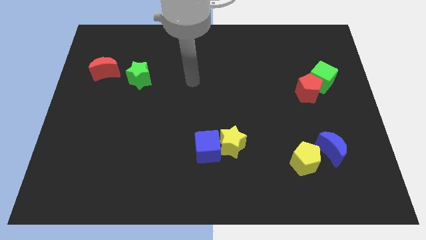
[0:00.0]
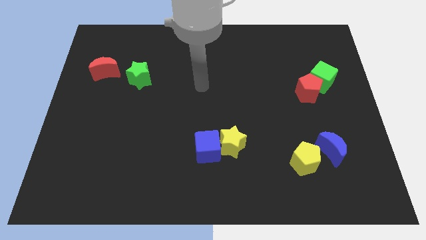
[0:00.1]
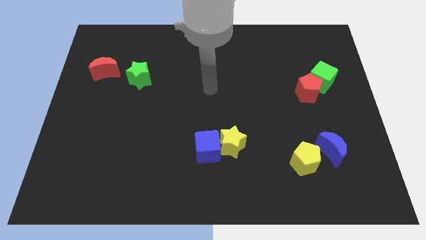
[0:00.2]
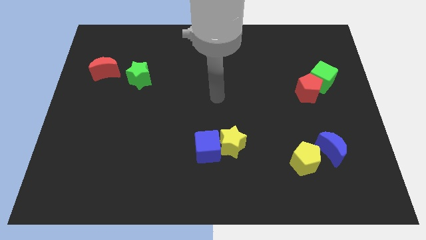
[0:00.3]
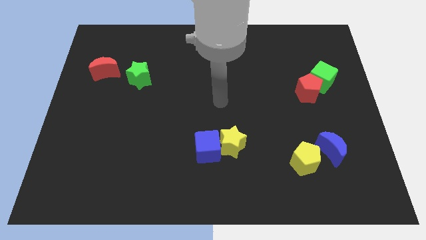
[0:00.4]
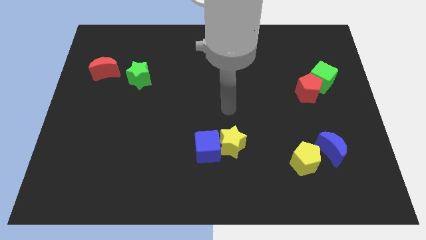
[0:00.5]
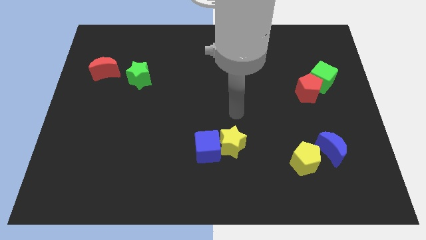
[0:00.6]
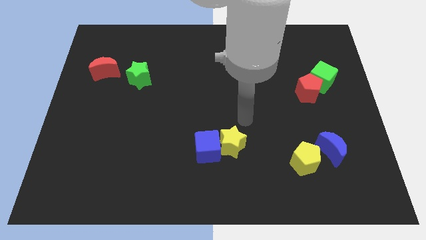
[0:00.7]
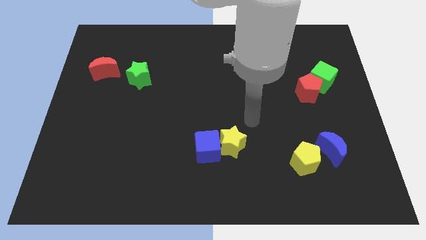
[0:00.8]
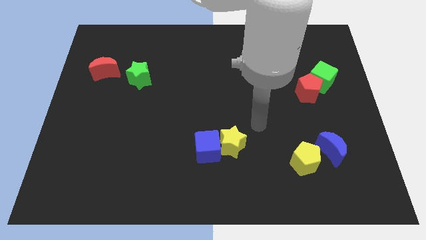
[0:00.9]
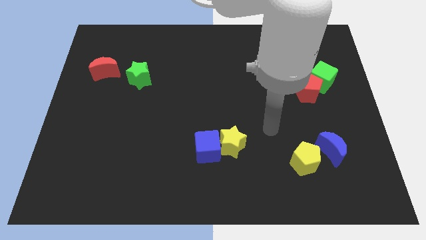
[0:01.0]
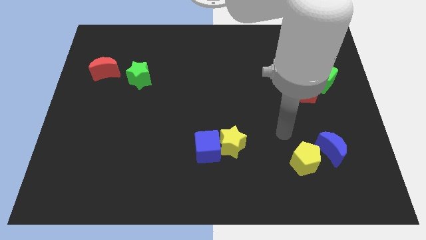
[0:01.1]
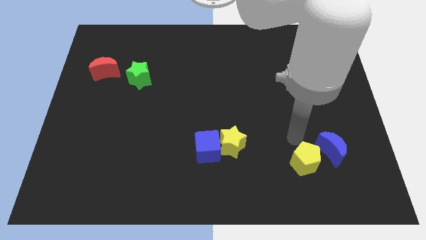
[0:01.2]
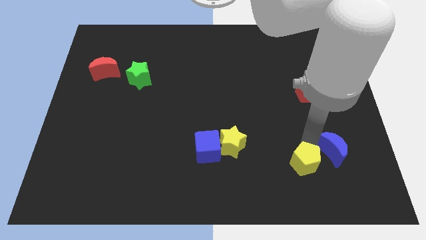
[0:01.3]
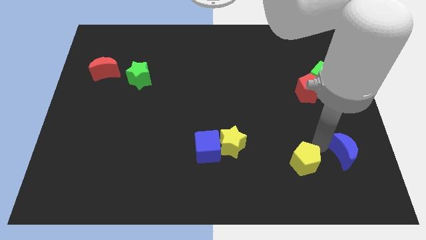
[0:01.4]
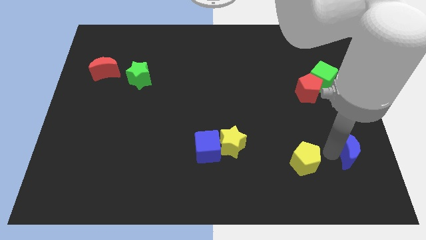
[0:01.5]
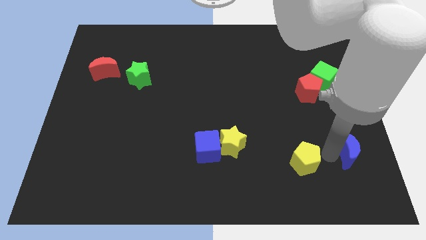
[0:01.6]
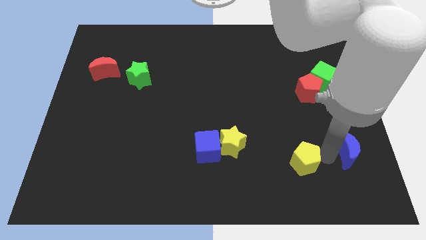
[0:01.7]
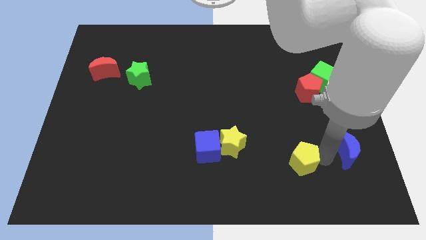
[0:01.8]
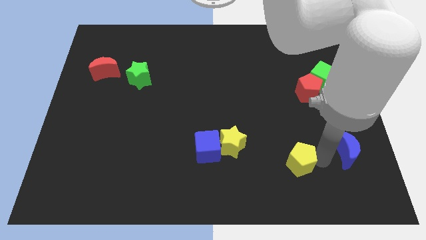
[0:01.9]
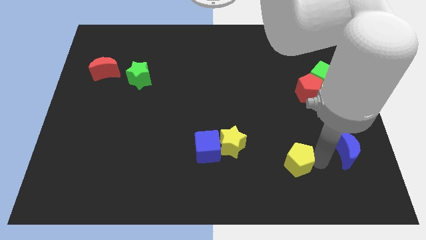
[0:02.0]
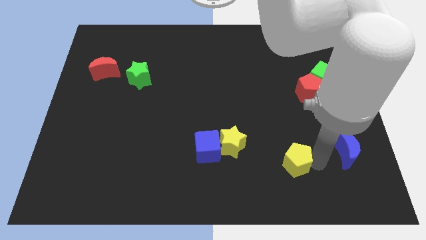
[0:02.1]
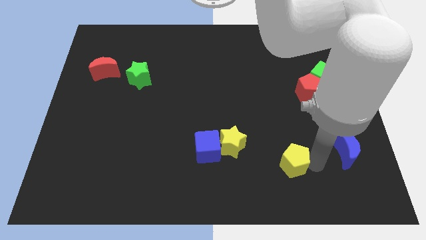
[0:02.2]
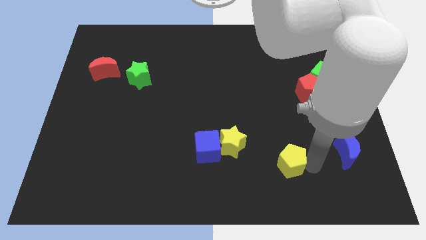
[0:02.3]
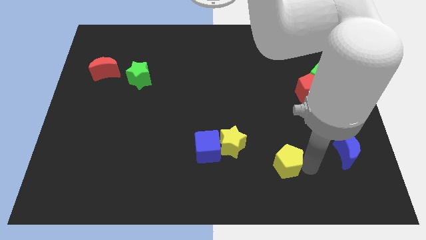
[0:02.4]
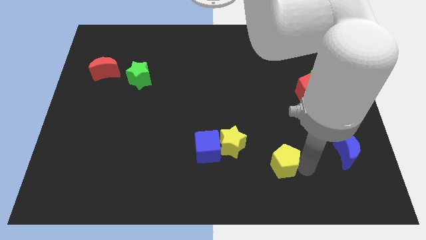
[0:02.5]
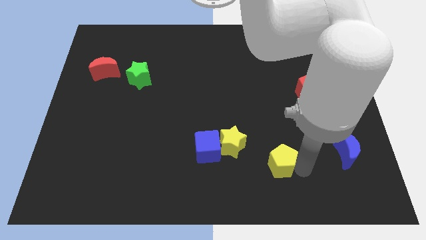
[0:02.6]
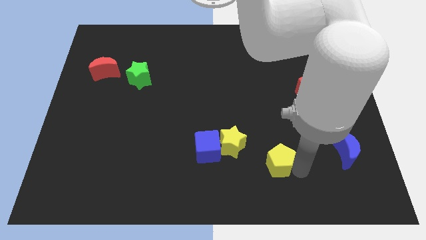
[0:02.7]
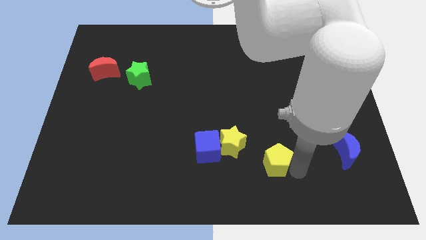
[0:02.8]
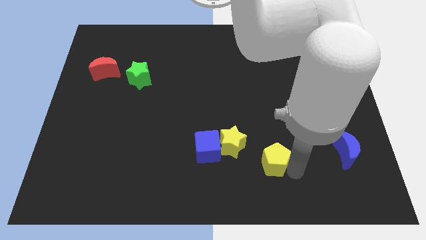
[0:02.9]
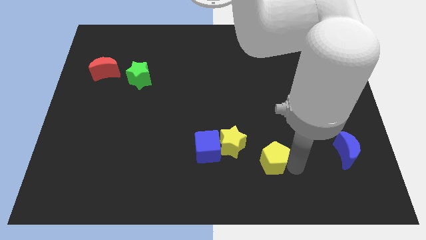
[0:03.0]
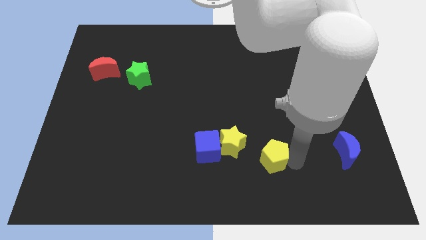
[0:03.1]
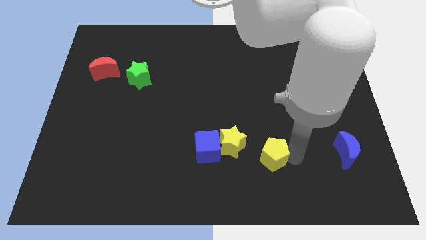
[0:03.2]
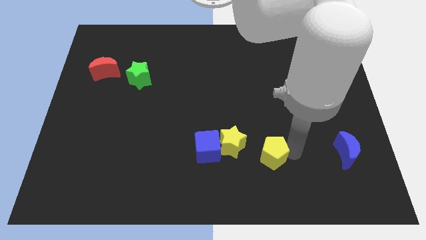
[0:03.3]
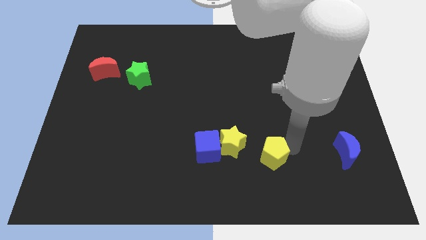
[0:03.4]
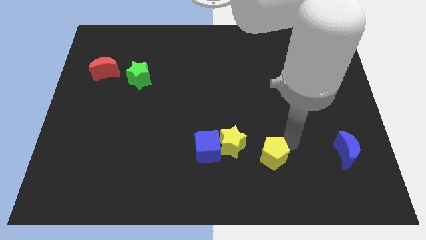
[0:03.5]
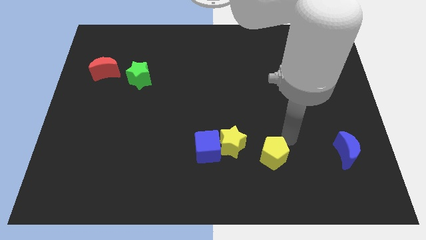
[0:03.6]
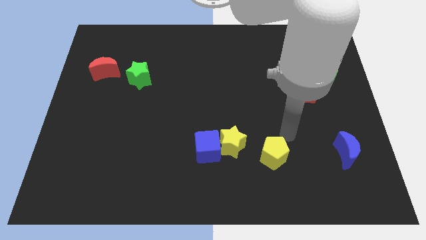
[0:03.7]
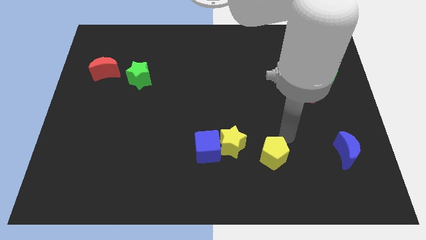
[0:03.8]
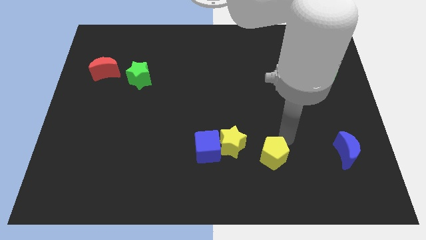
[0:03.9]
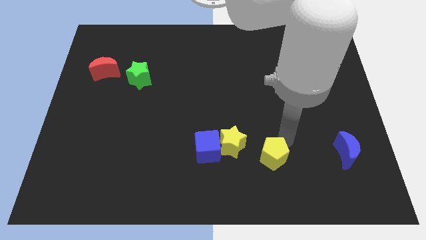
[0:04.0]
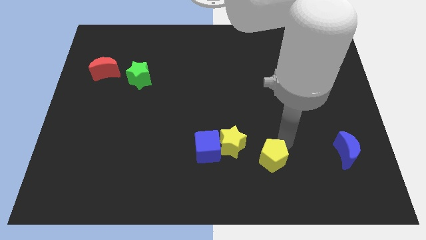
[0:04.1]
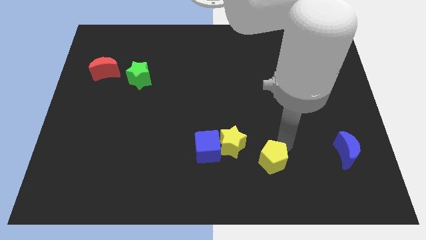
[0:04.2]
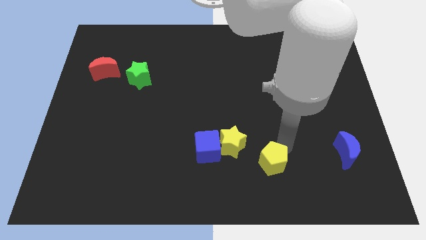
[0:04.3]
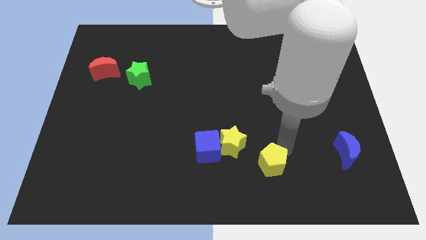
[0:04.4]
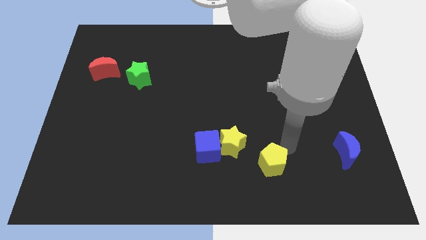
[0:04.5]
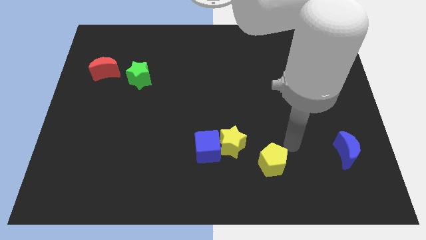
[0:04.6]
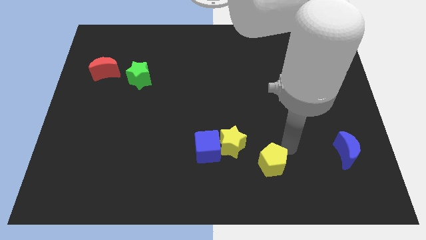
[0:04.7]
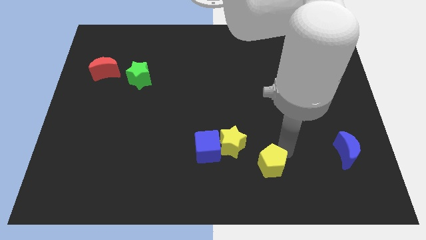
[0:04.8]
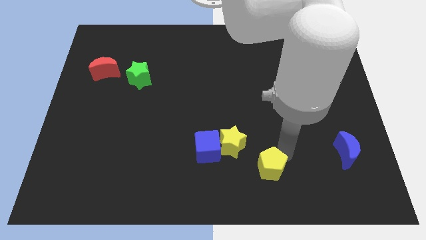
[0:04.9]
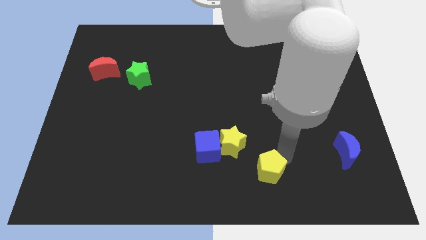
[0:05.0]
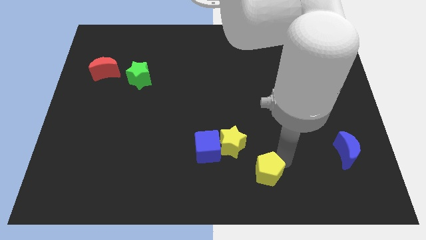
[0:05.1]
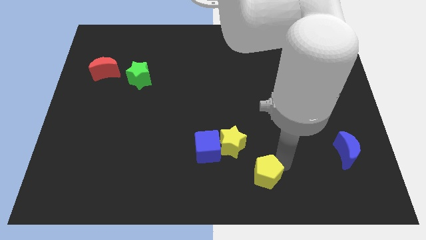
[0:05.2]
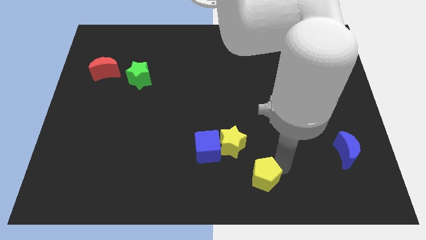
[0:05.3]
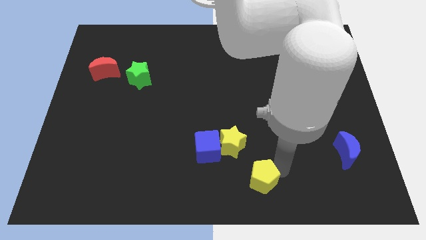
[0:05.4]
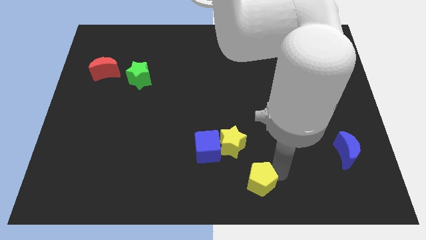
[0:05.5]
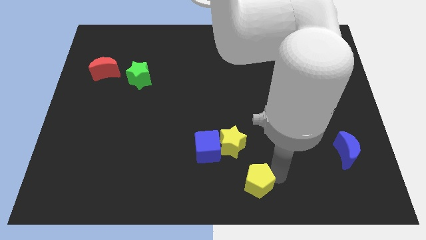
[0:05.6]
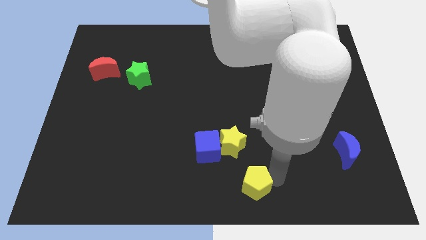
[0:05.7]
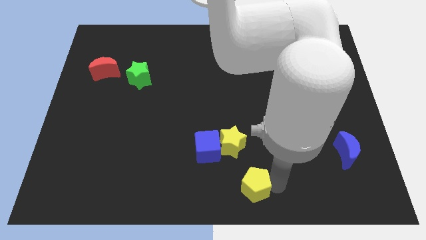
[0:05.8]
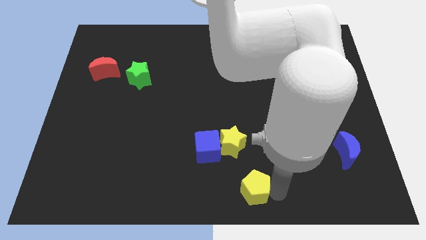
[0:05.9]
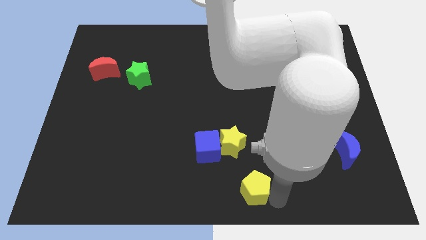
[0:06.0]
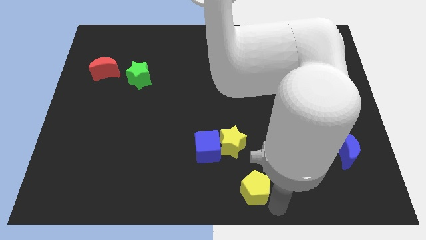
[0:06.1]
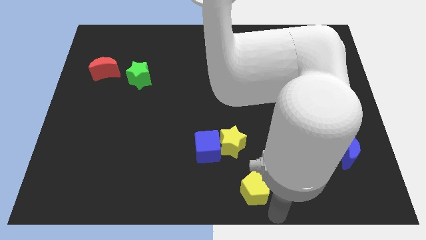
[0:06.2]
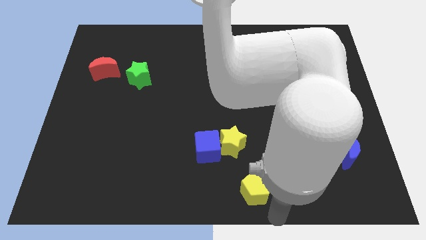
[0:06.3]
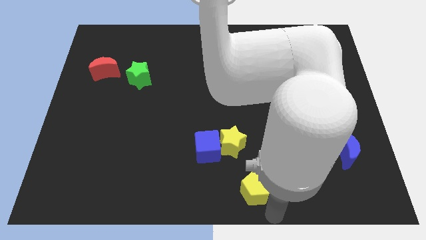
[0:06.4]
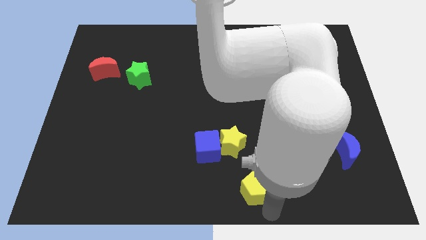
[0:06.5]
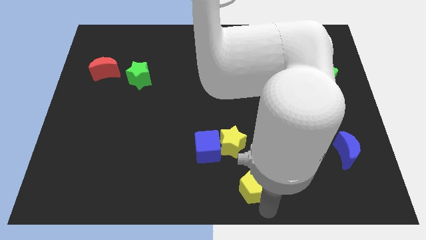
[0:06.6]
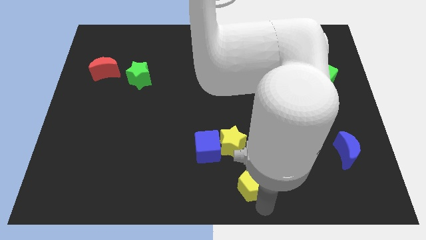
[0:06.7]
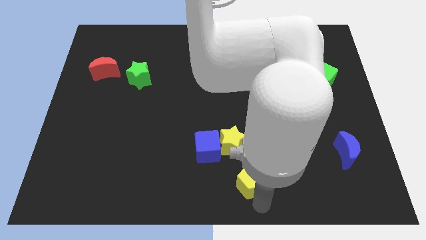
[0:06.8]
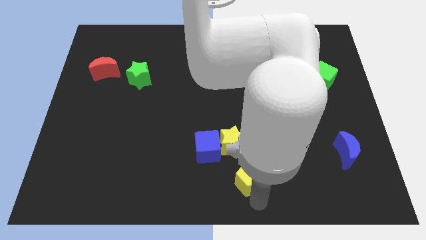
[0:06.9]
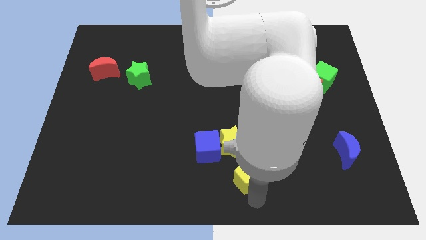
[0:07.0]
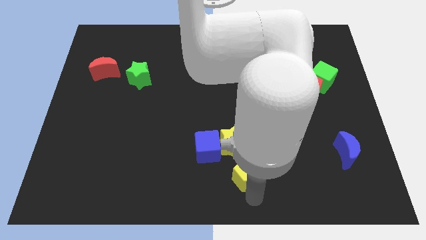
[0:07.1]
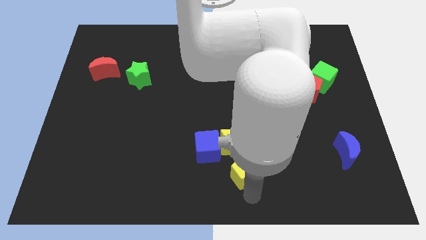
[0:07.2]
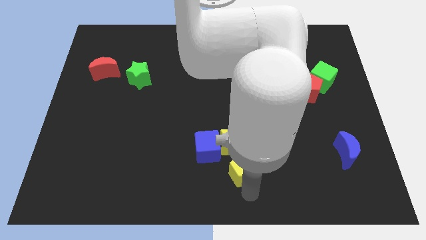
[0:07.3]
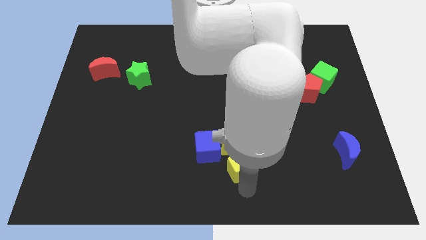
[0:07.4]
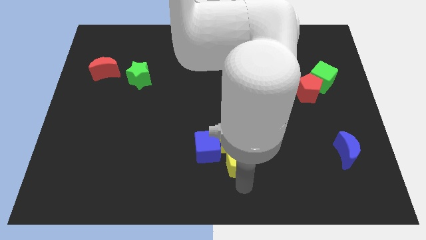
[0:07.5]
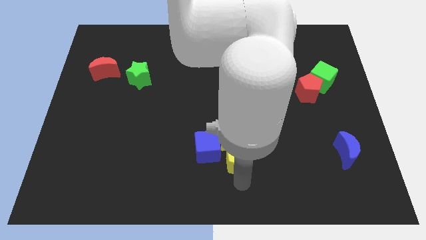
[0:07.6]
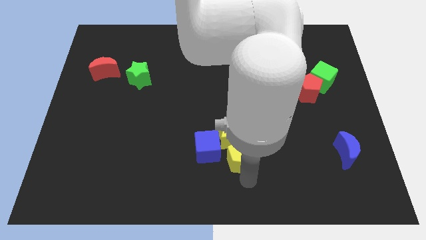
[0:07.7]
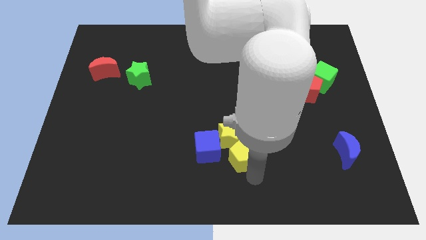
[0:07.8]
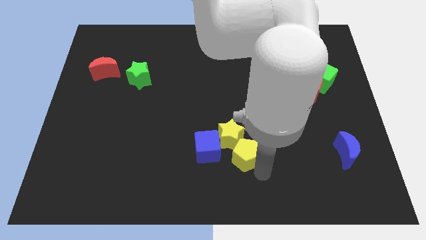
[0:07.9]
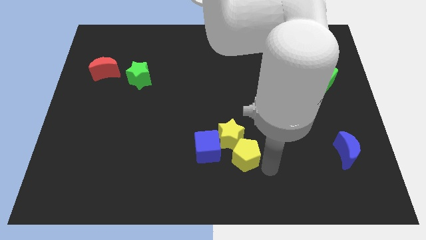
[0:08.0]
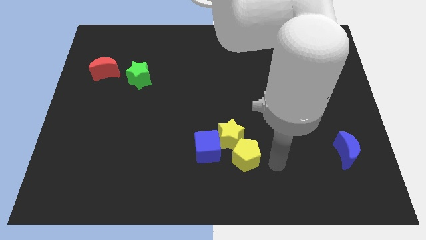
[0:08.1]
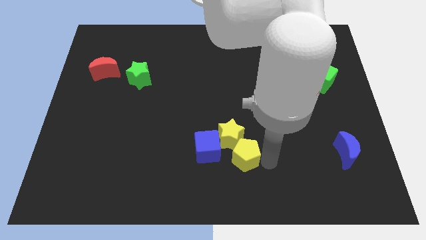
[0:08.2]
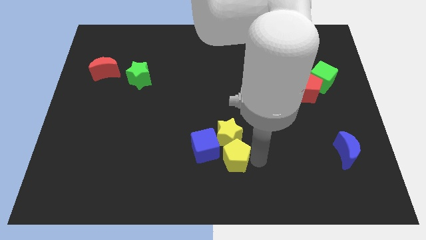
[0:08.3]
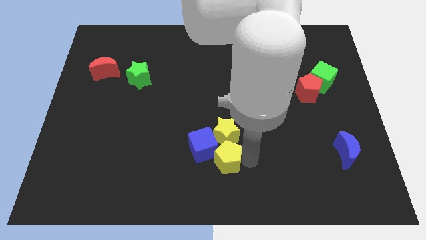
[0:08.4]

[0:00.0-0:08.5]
slide the yellow pentagon close to the blue cube
